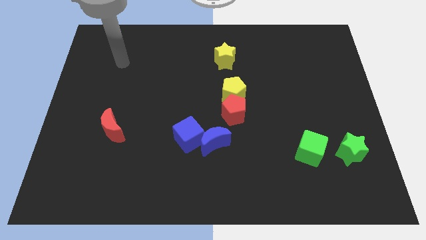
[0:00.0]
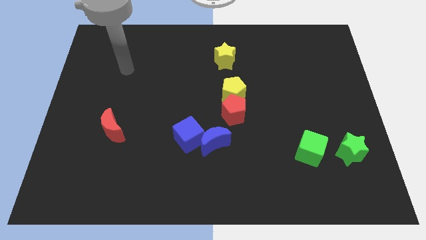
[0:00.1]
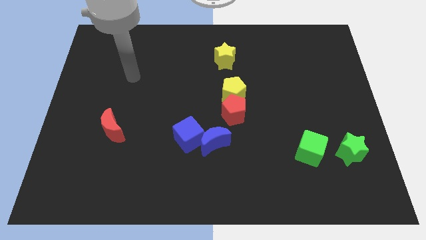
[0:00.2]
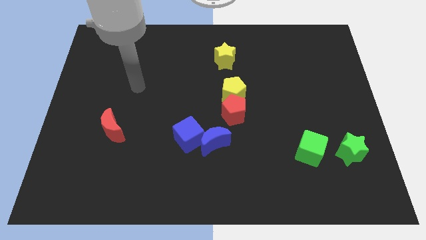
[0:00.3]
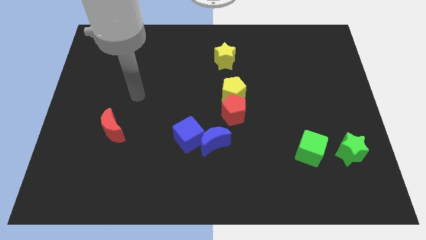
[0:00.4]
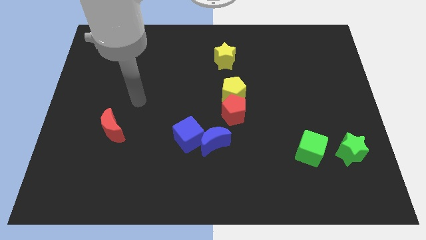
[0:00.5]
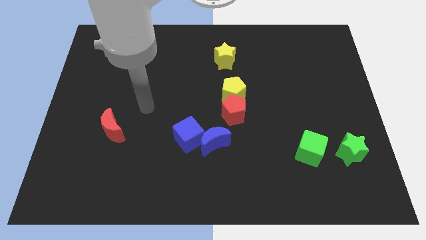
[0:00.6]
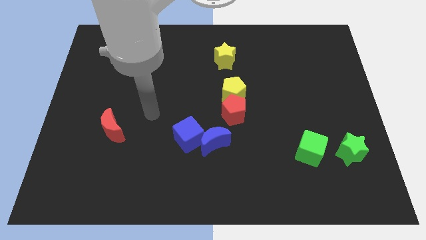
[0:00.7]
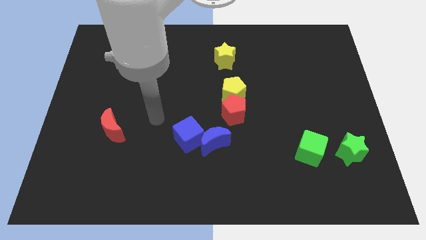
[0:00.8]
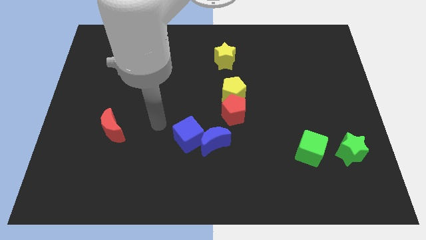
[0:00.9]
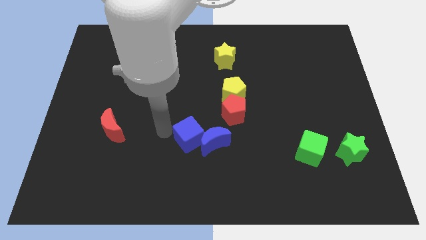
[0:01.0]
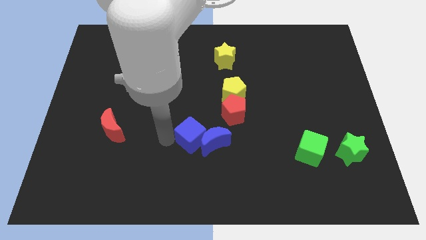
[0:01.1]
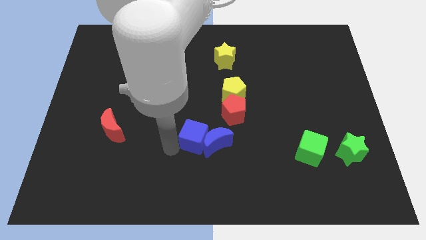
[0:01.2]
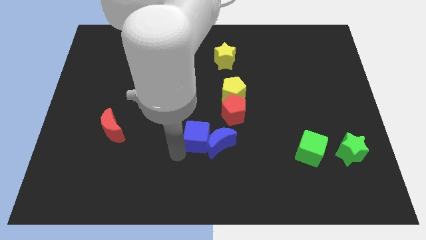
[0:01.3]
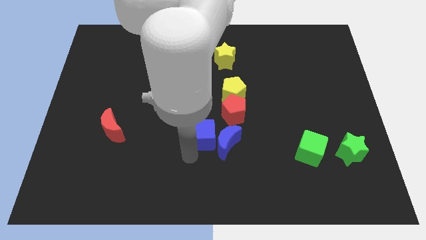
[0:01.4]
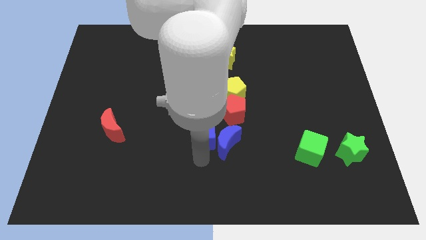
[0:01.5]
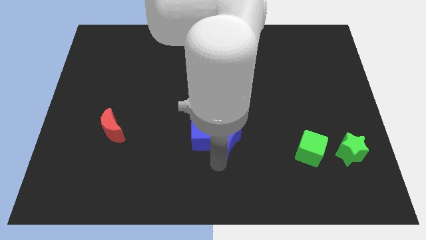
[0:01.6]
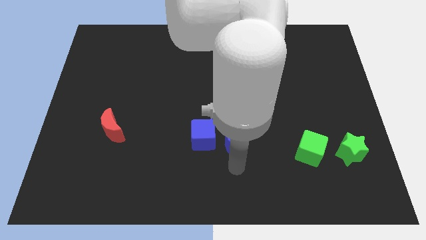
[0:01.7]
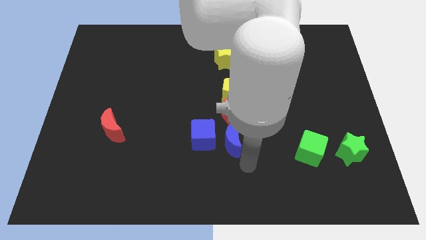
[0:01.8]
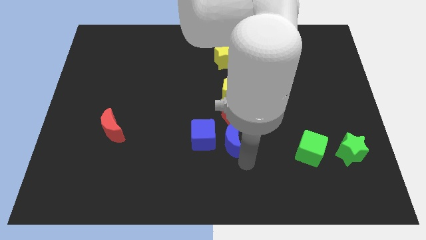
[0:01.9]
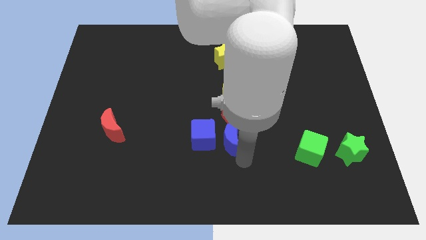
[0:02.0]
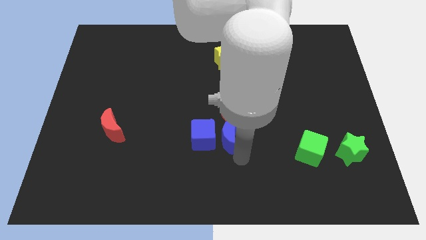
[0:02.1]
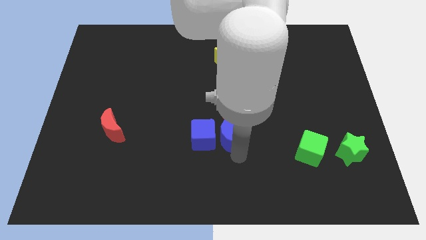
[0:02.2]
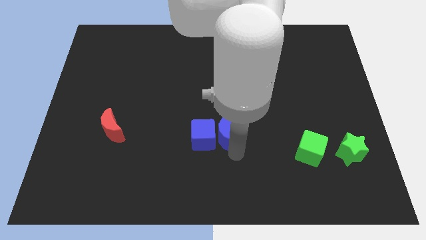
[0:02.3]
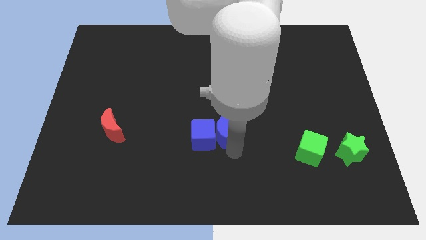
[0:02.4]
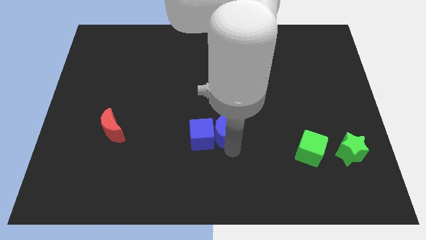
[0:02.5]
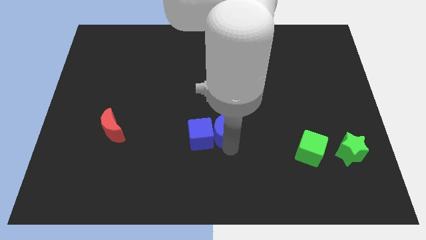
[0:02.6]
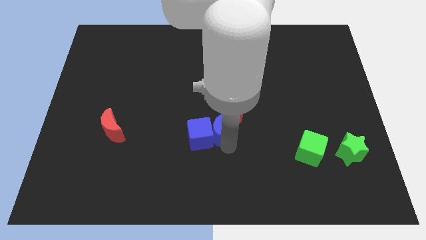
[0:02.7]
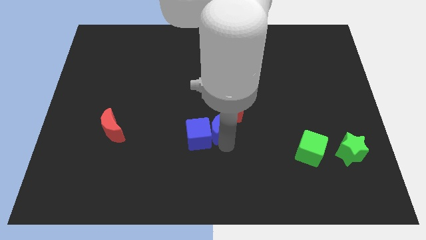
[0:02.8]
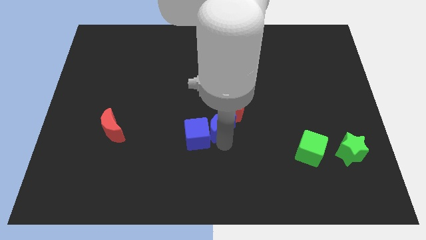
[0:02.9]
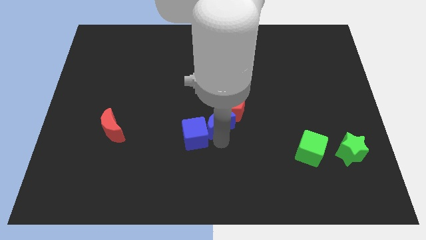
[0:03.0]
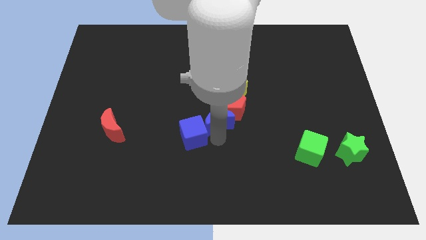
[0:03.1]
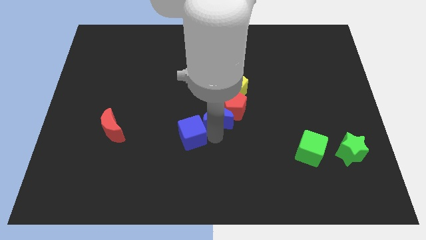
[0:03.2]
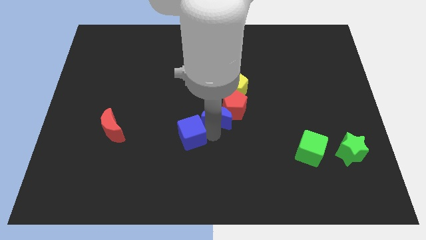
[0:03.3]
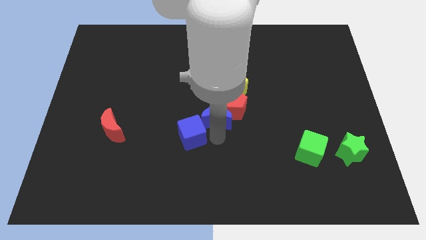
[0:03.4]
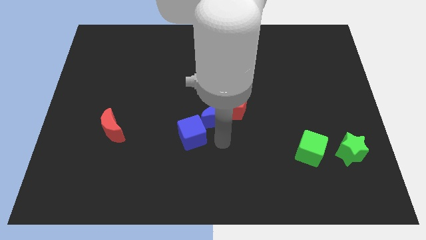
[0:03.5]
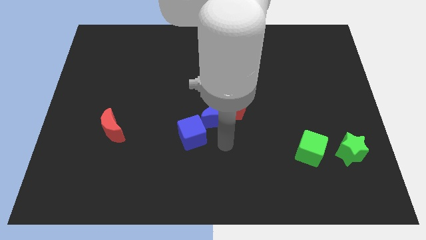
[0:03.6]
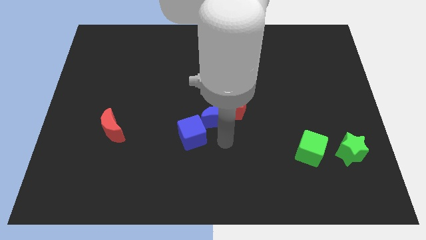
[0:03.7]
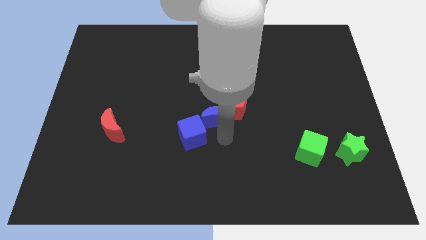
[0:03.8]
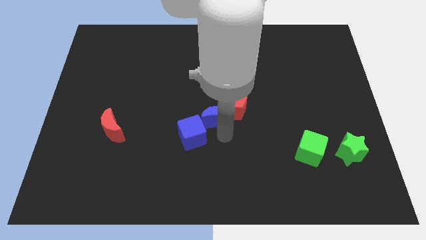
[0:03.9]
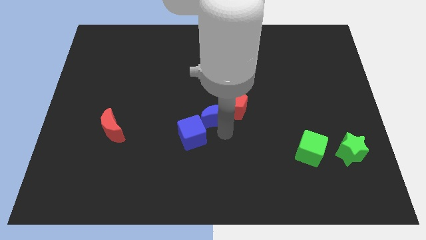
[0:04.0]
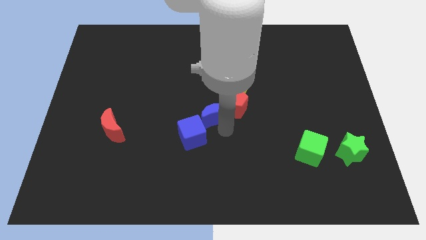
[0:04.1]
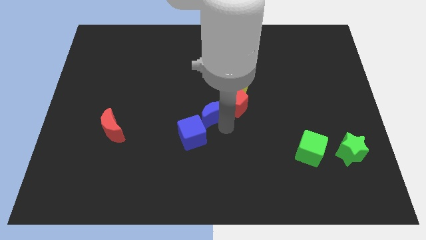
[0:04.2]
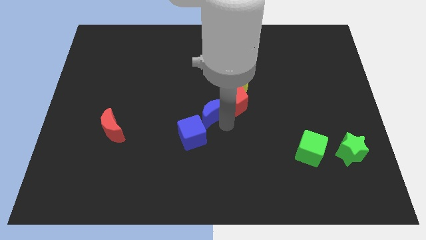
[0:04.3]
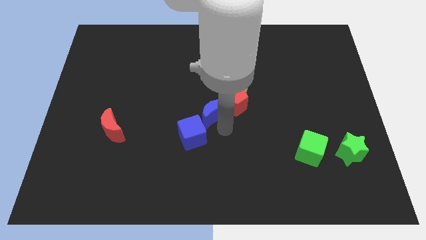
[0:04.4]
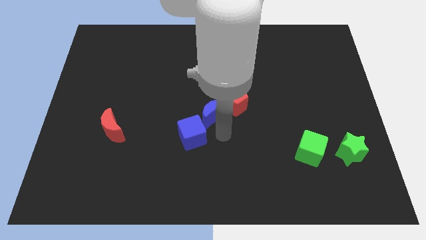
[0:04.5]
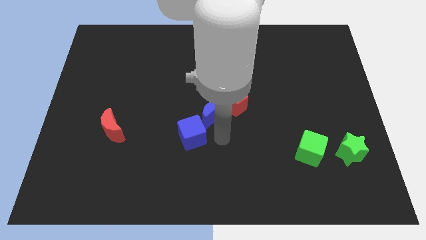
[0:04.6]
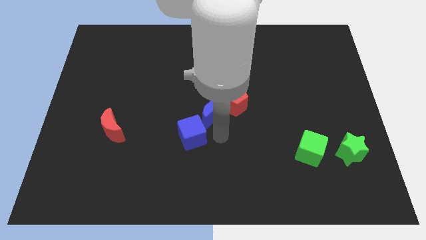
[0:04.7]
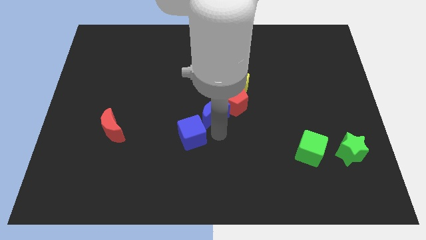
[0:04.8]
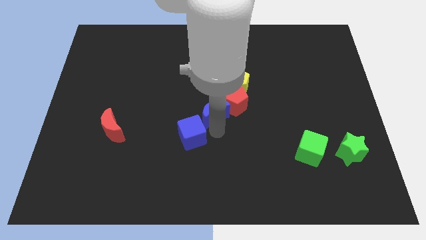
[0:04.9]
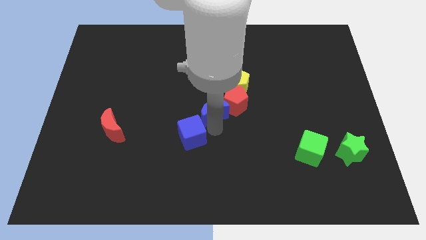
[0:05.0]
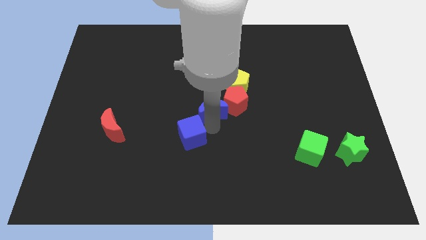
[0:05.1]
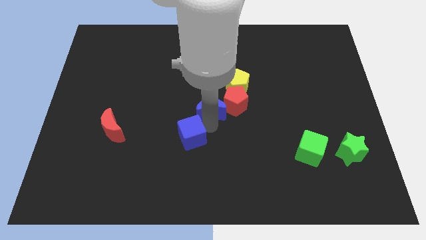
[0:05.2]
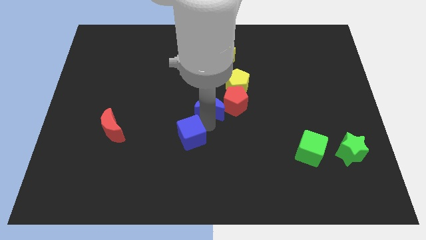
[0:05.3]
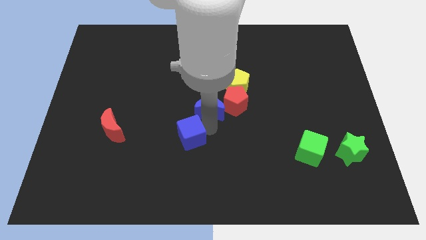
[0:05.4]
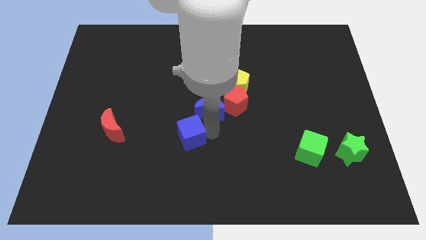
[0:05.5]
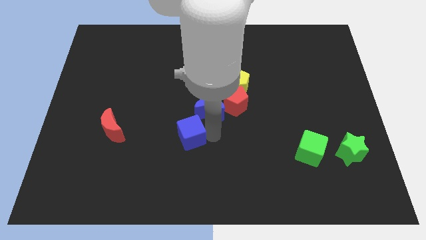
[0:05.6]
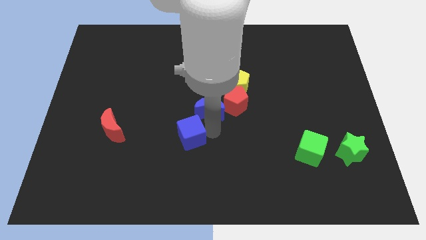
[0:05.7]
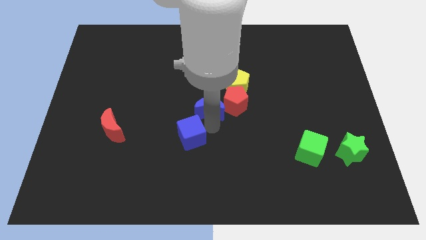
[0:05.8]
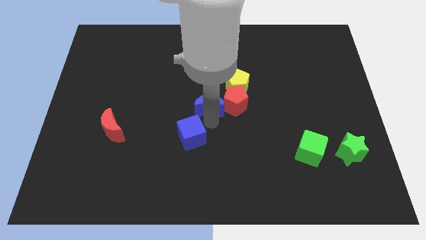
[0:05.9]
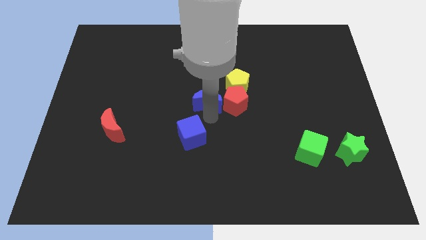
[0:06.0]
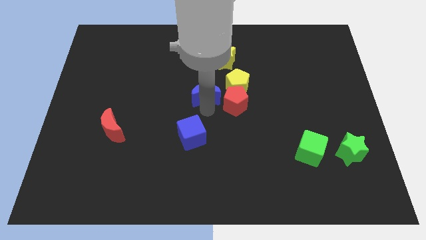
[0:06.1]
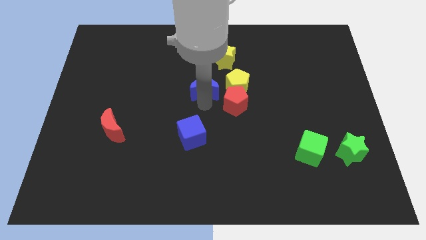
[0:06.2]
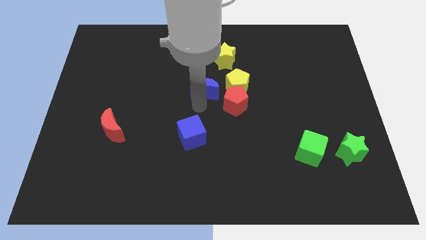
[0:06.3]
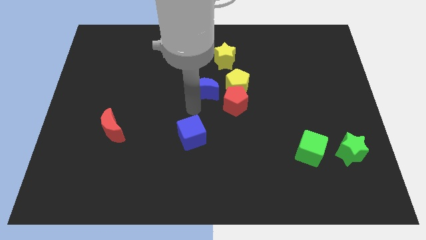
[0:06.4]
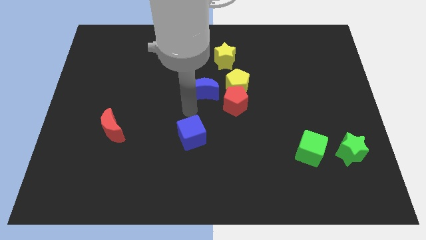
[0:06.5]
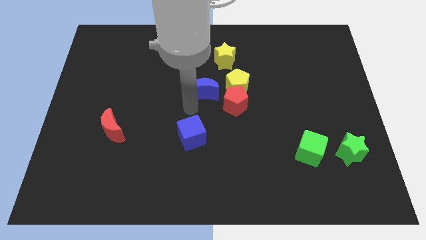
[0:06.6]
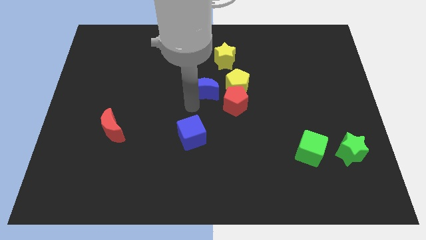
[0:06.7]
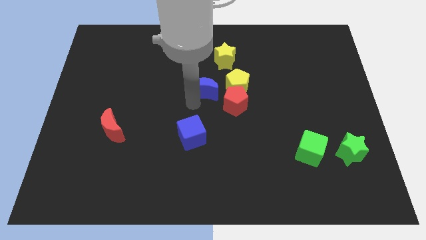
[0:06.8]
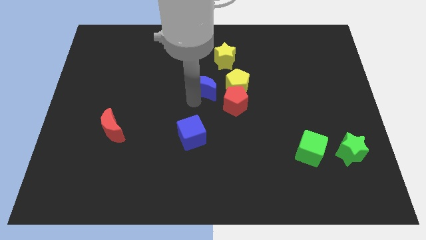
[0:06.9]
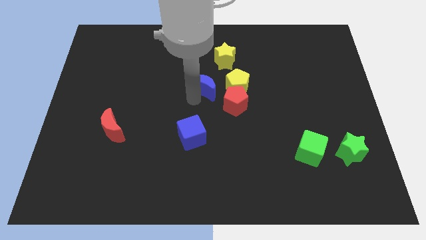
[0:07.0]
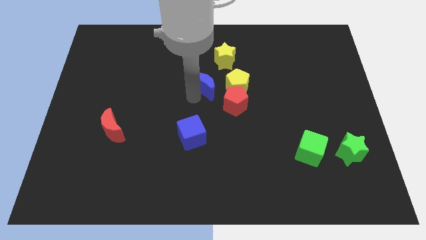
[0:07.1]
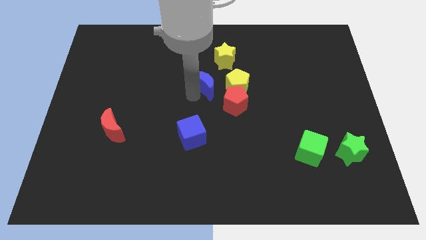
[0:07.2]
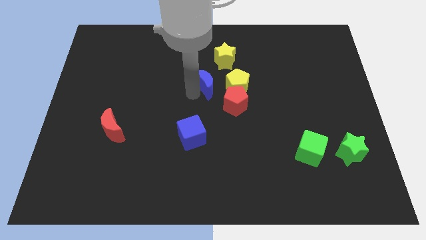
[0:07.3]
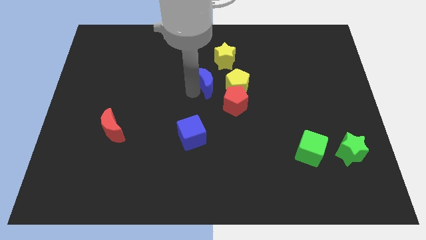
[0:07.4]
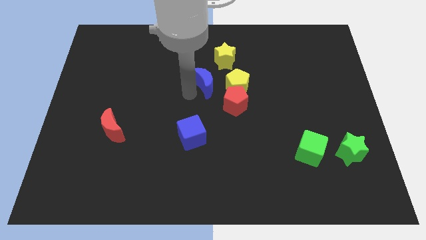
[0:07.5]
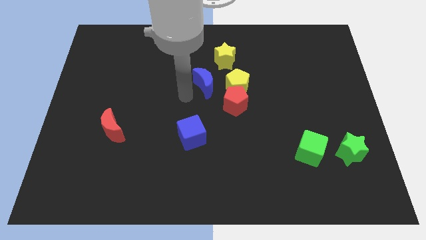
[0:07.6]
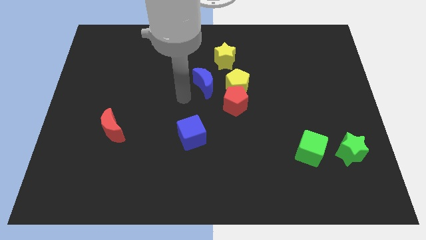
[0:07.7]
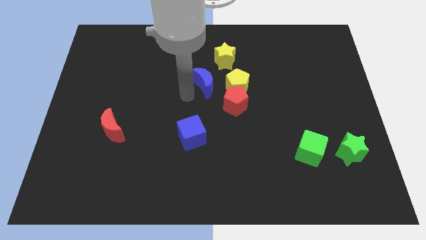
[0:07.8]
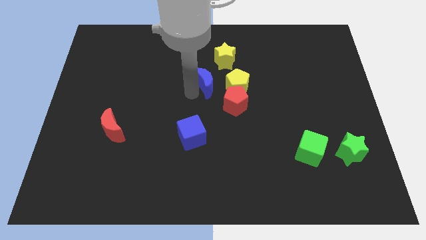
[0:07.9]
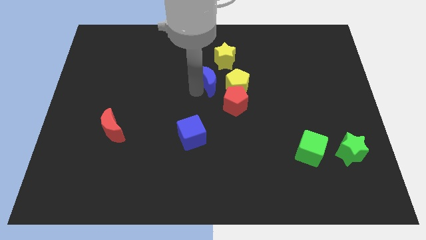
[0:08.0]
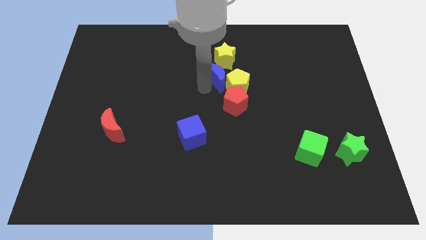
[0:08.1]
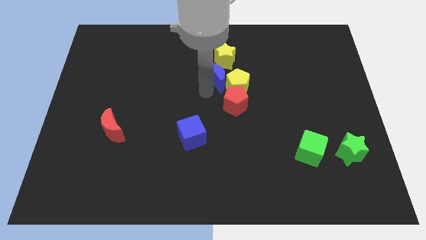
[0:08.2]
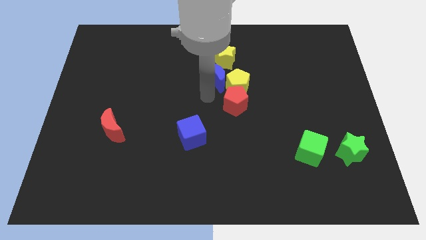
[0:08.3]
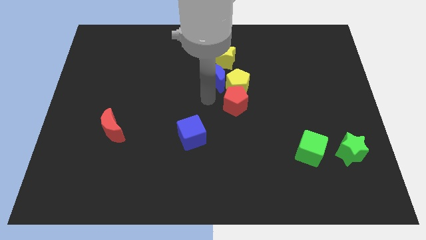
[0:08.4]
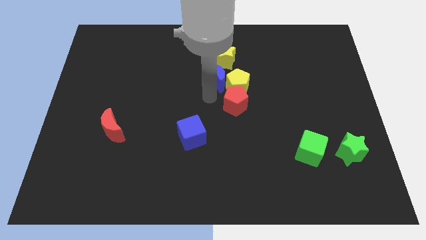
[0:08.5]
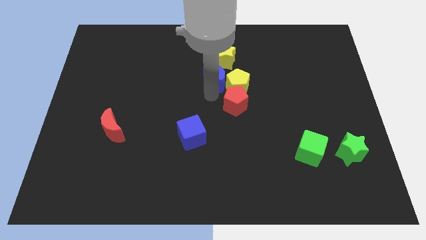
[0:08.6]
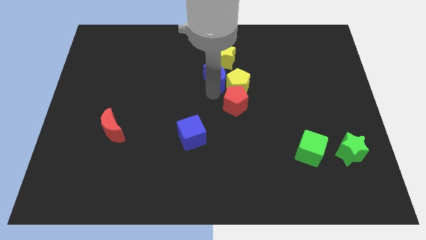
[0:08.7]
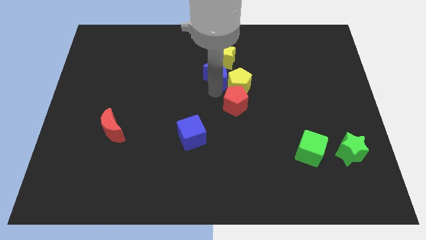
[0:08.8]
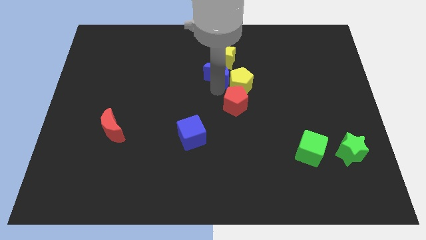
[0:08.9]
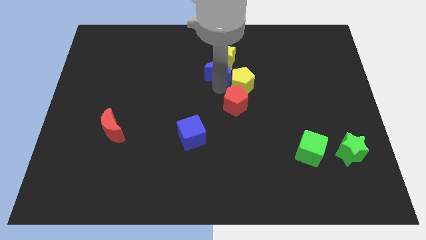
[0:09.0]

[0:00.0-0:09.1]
slide the blue moon close to the yellow star
